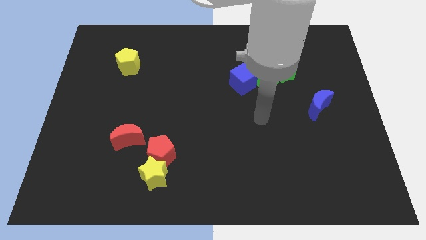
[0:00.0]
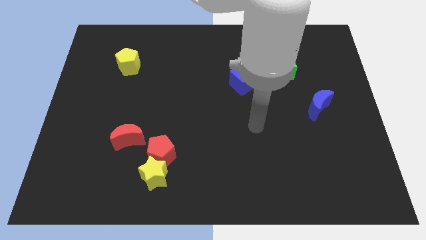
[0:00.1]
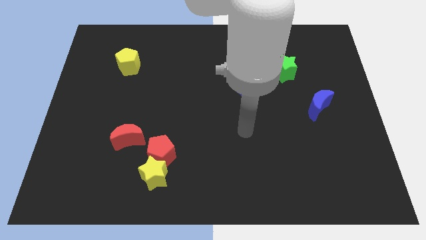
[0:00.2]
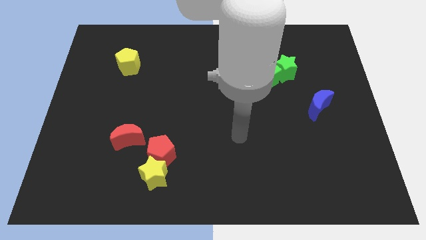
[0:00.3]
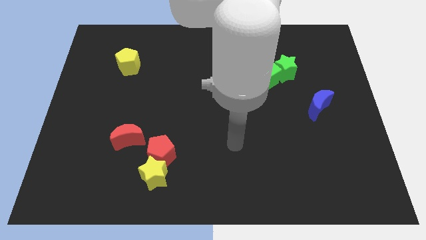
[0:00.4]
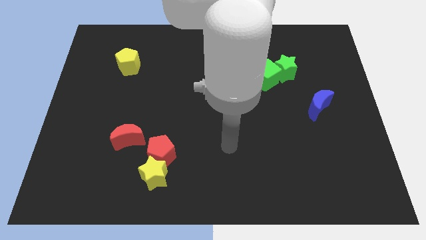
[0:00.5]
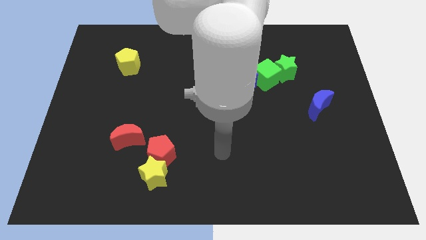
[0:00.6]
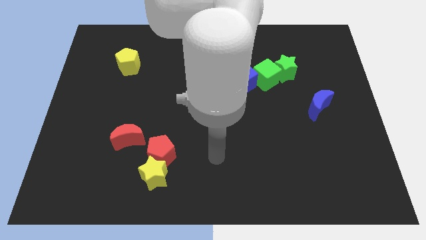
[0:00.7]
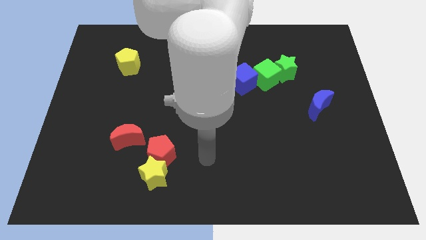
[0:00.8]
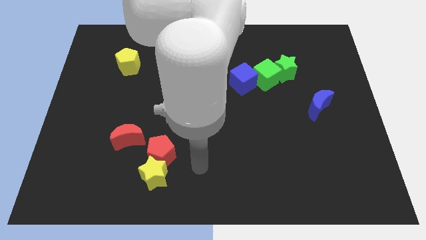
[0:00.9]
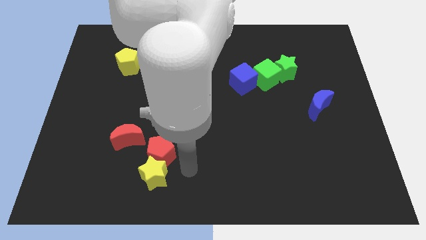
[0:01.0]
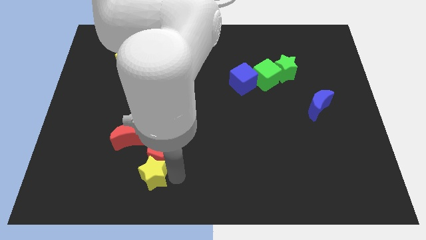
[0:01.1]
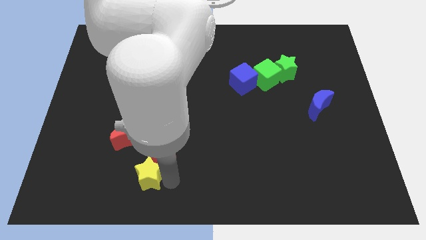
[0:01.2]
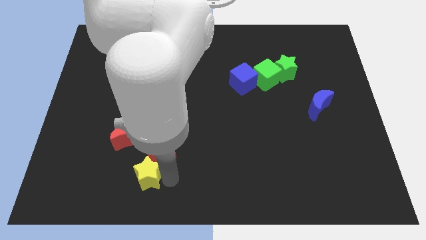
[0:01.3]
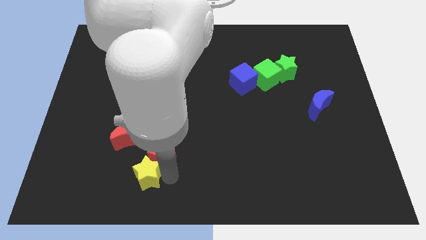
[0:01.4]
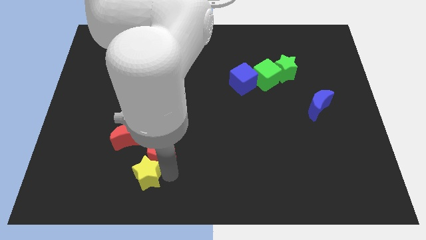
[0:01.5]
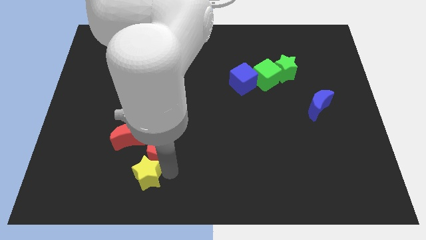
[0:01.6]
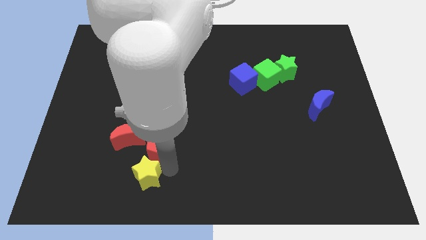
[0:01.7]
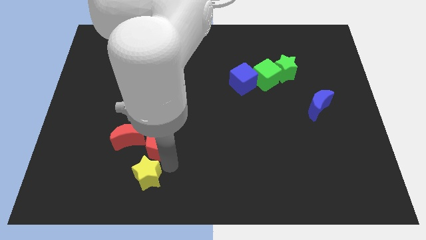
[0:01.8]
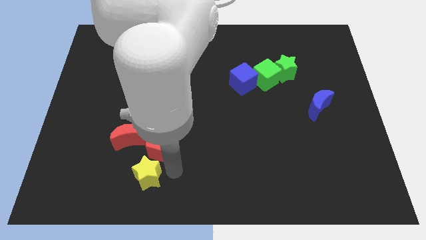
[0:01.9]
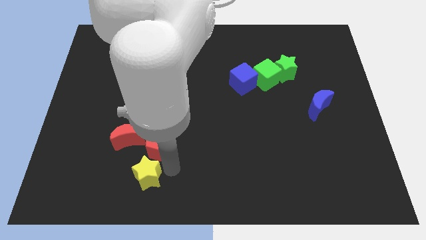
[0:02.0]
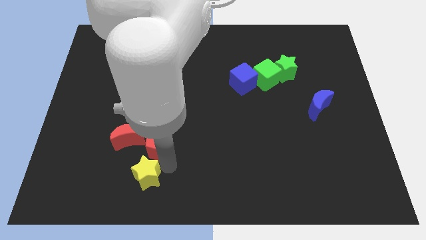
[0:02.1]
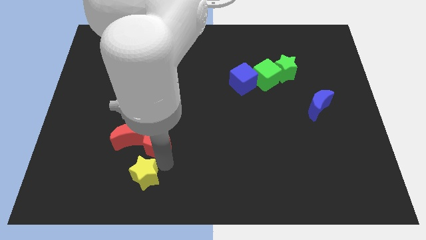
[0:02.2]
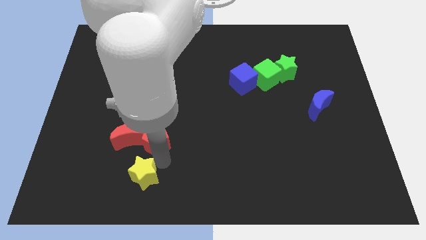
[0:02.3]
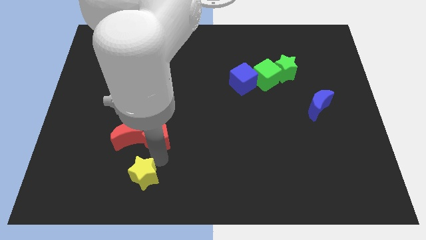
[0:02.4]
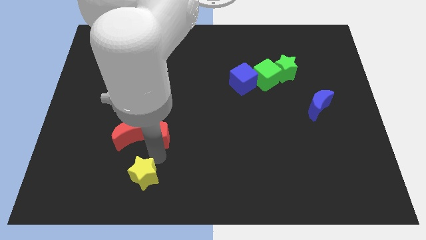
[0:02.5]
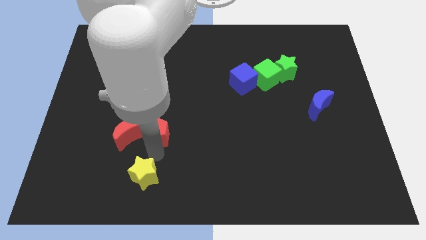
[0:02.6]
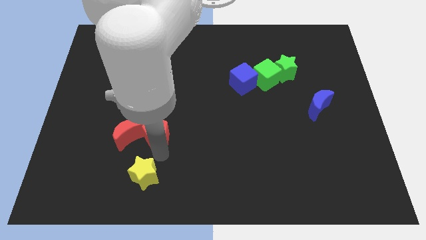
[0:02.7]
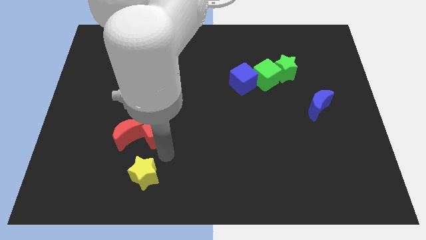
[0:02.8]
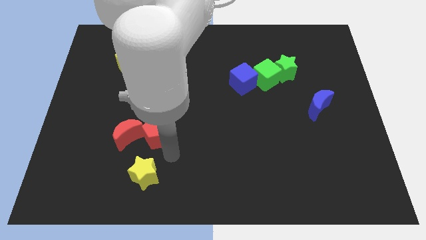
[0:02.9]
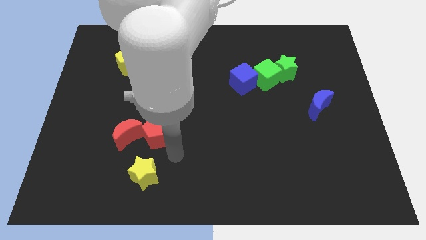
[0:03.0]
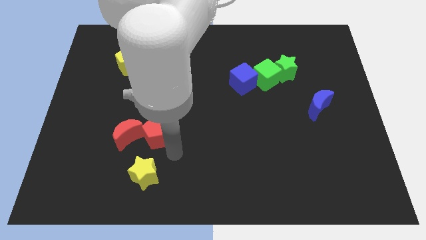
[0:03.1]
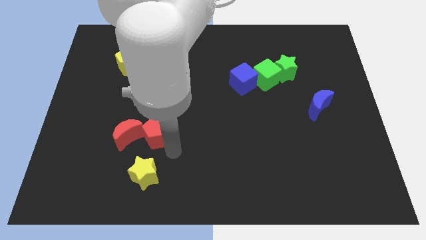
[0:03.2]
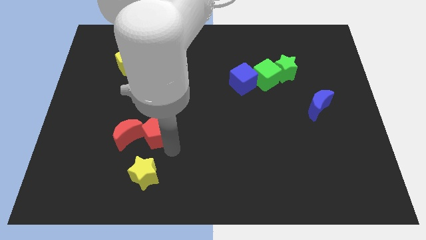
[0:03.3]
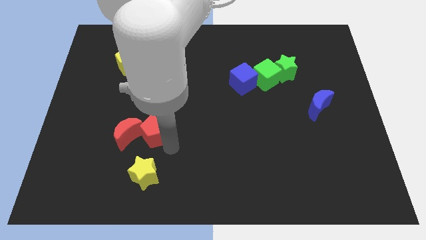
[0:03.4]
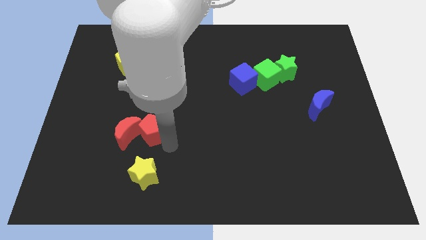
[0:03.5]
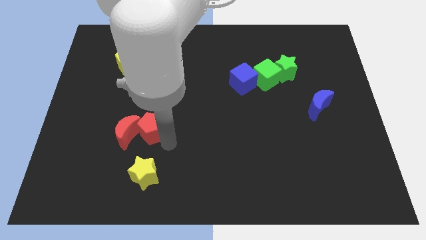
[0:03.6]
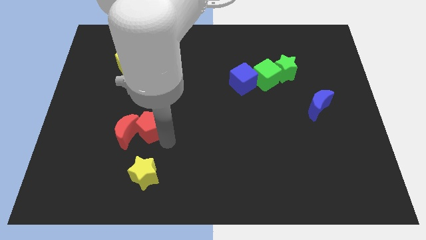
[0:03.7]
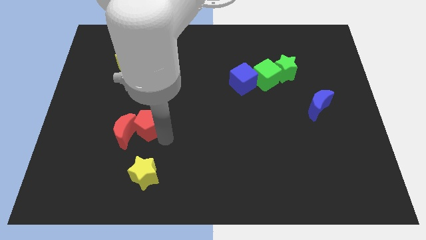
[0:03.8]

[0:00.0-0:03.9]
slightly move the red pentagon up and to the left

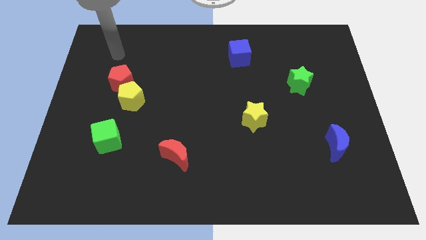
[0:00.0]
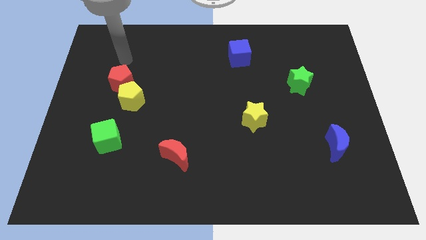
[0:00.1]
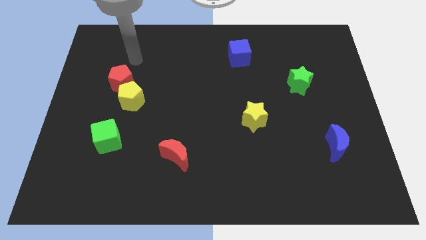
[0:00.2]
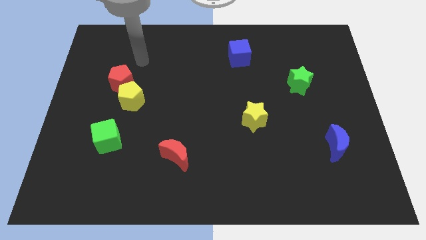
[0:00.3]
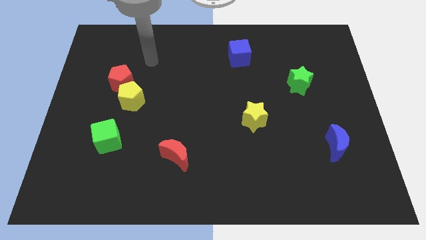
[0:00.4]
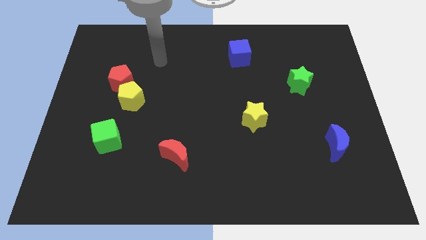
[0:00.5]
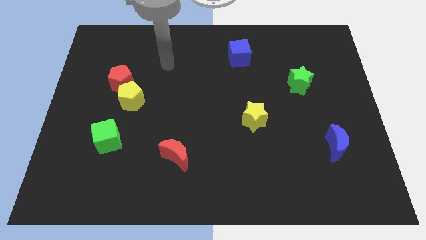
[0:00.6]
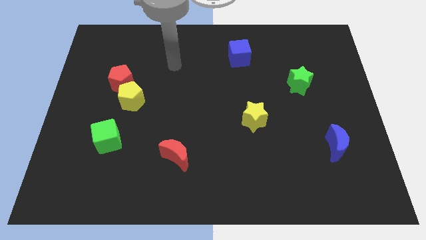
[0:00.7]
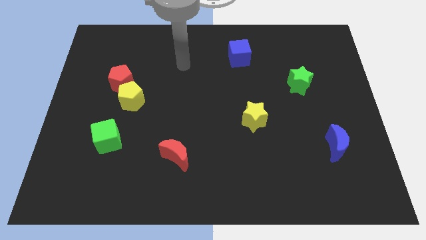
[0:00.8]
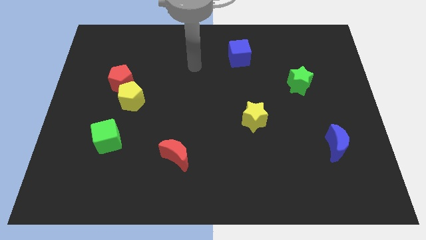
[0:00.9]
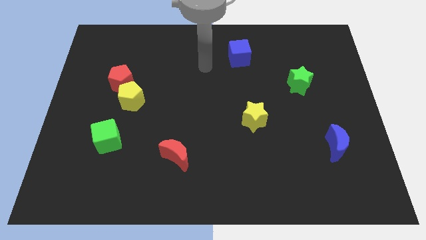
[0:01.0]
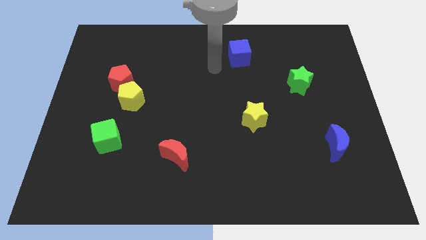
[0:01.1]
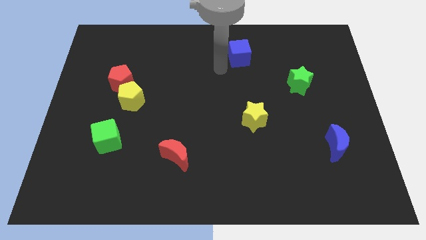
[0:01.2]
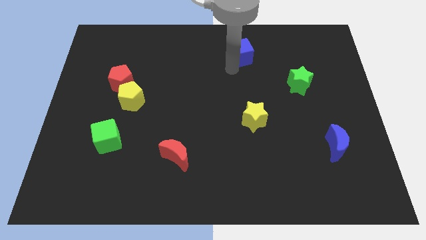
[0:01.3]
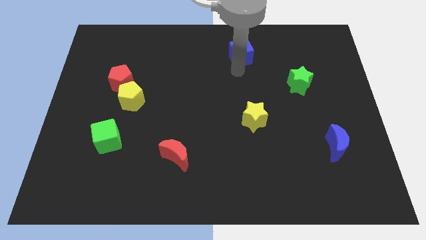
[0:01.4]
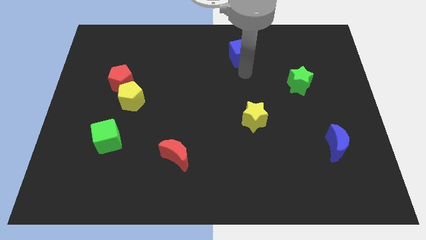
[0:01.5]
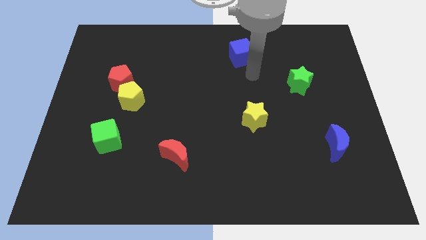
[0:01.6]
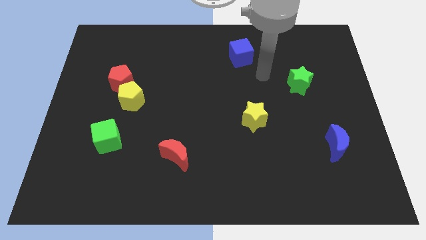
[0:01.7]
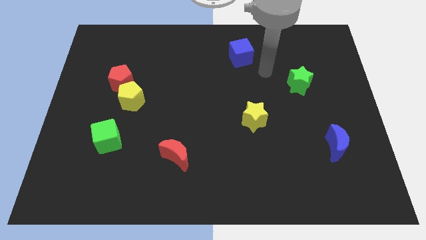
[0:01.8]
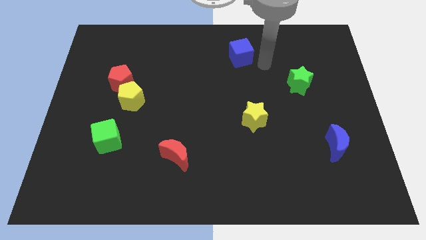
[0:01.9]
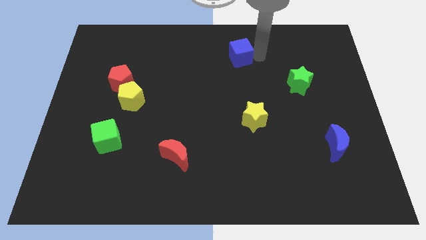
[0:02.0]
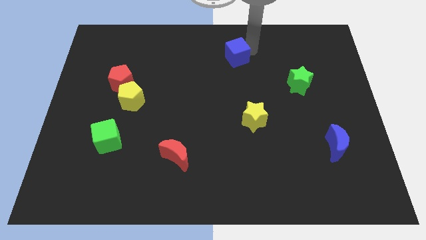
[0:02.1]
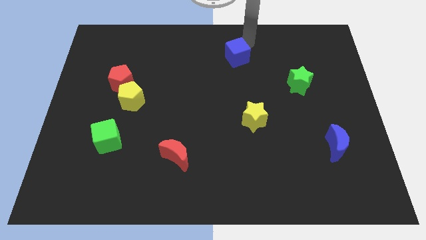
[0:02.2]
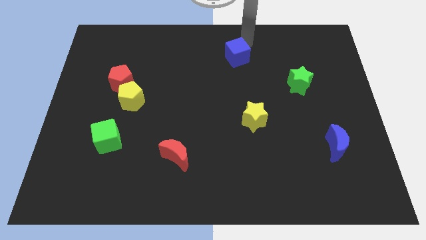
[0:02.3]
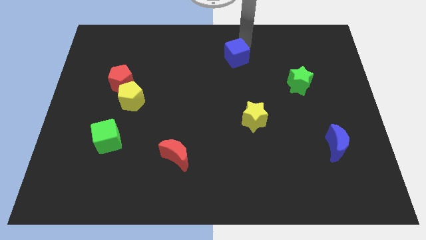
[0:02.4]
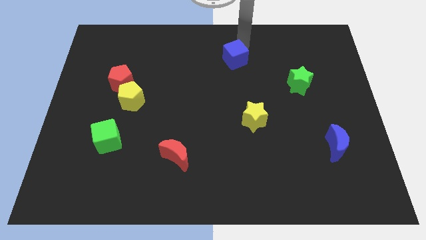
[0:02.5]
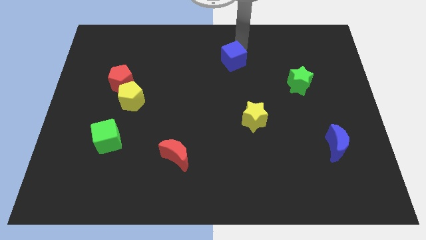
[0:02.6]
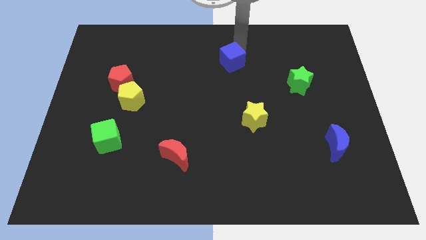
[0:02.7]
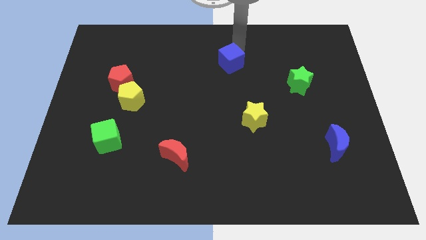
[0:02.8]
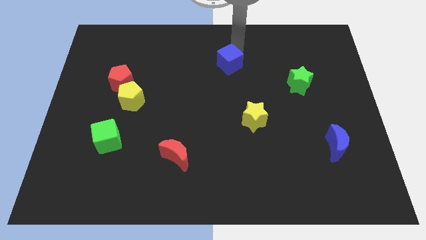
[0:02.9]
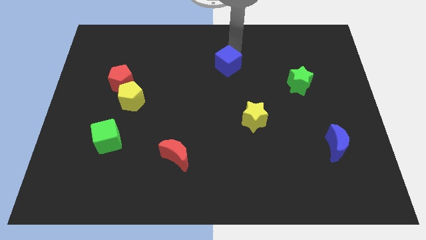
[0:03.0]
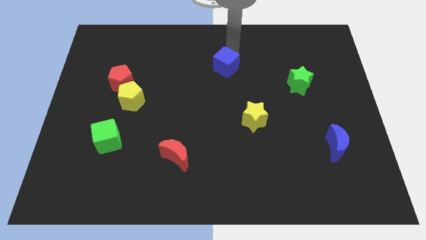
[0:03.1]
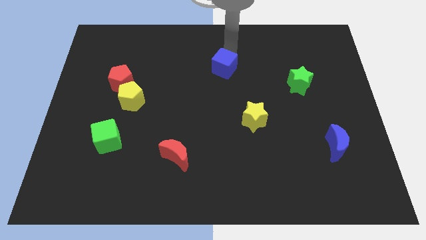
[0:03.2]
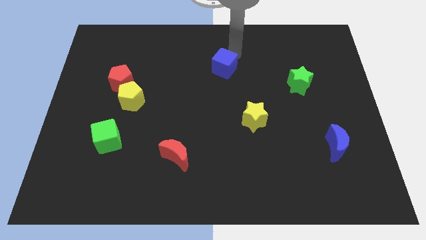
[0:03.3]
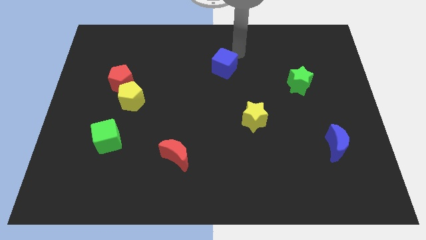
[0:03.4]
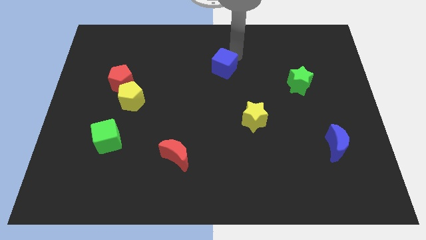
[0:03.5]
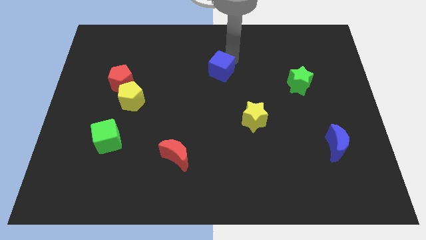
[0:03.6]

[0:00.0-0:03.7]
slightly push the blue cube diagonally down and left
